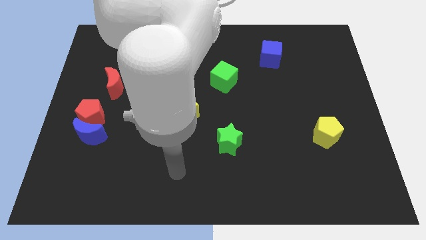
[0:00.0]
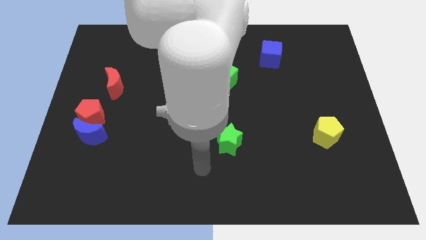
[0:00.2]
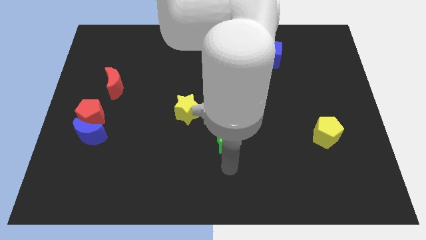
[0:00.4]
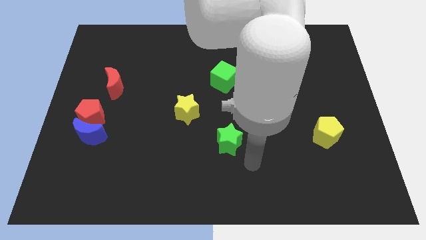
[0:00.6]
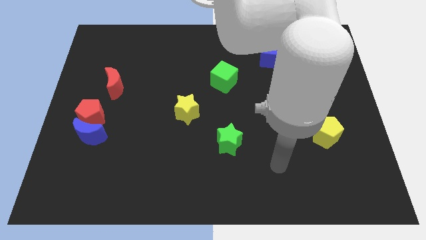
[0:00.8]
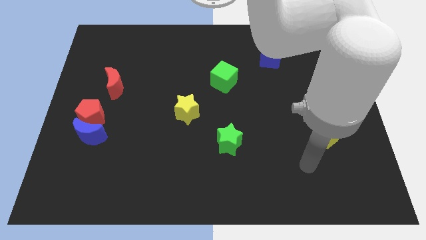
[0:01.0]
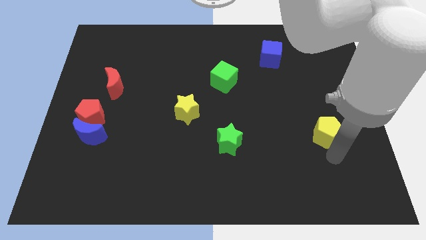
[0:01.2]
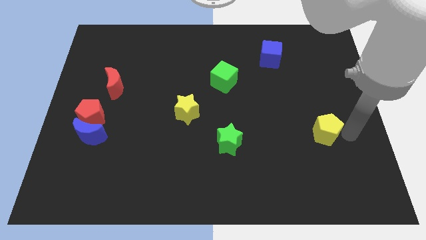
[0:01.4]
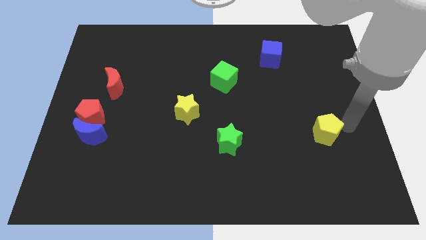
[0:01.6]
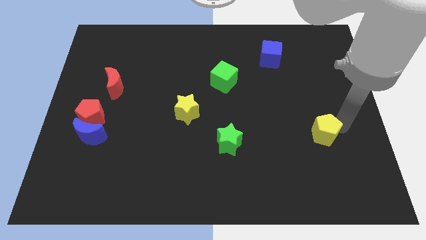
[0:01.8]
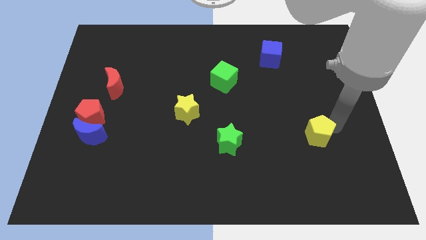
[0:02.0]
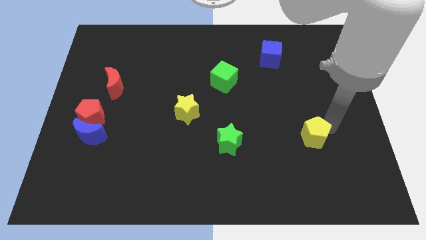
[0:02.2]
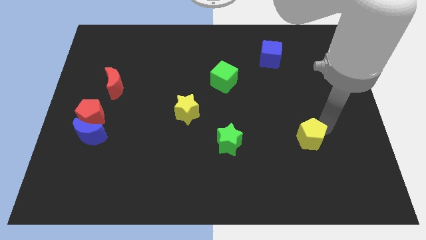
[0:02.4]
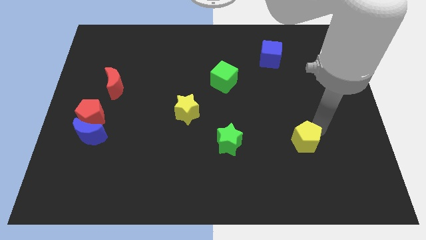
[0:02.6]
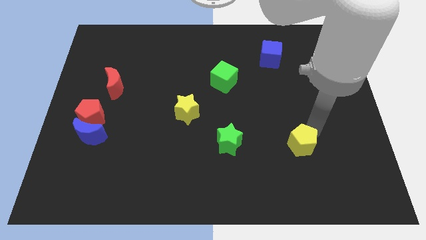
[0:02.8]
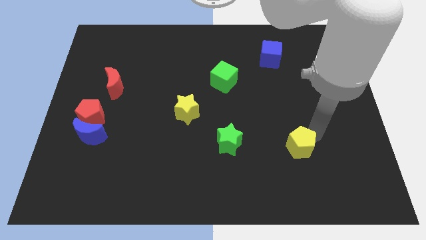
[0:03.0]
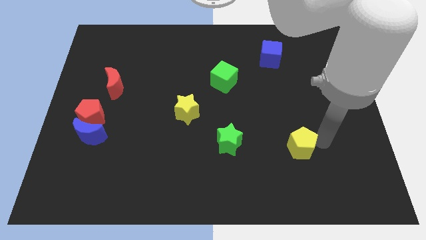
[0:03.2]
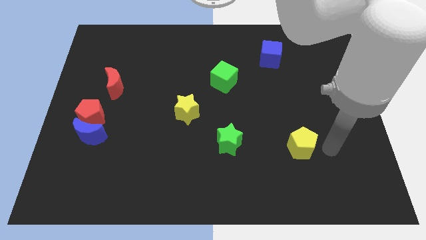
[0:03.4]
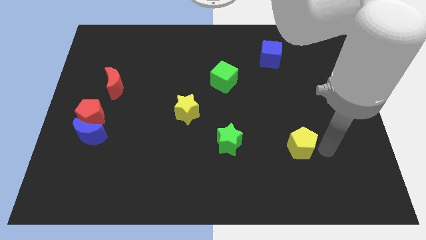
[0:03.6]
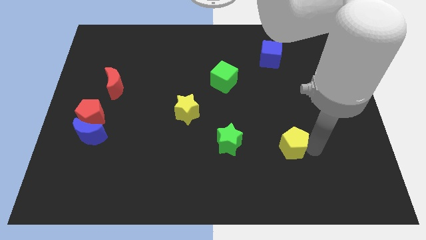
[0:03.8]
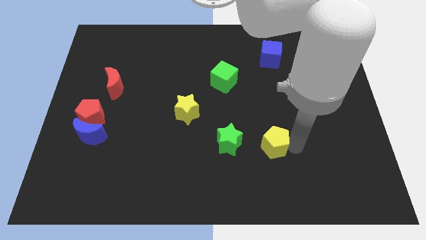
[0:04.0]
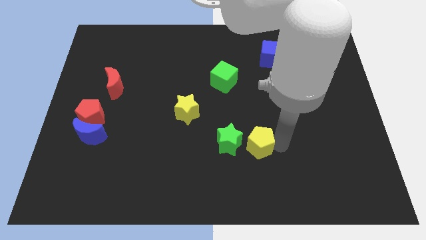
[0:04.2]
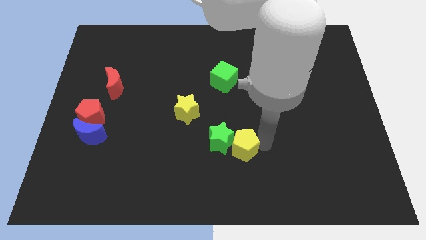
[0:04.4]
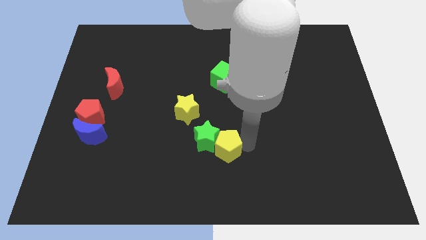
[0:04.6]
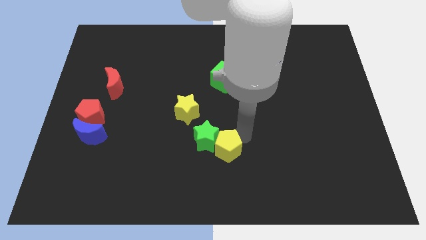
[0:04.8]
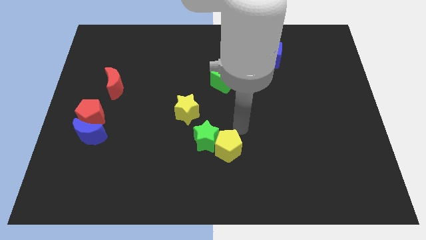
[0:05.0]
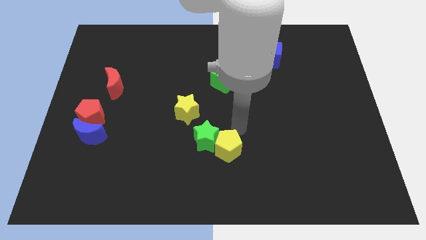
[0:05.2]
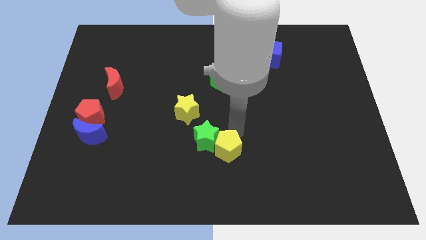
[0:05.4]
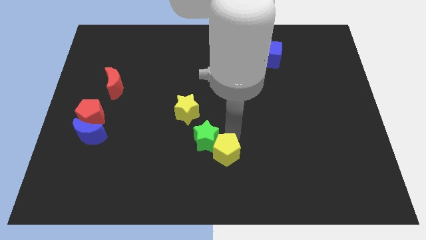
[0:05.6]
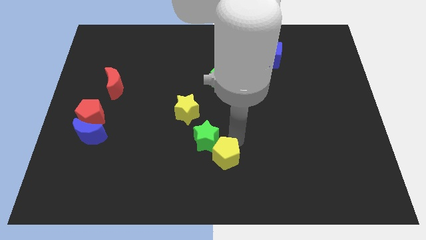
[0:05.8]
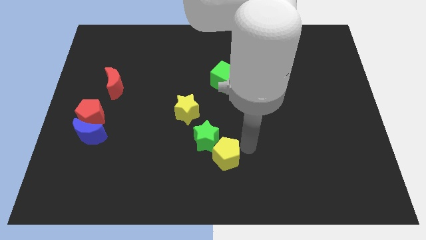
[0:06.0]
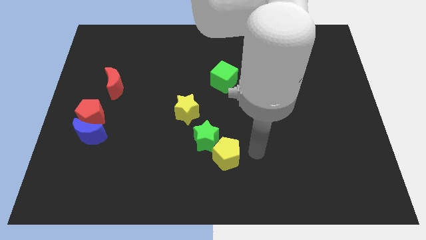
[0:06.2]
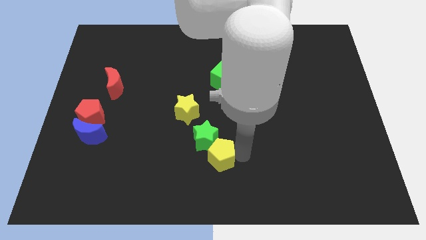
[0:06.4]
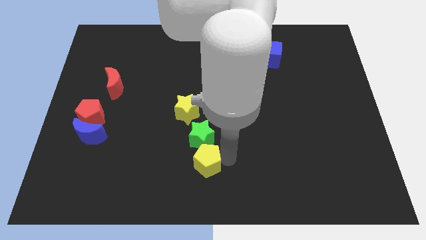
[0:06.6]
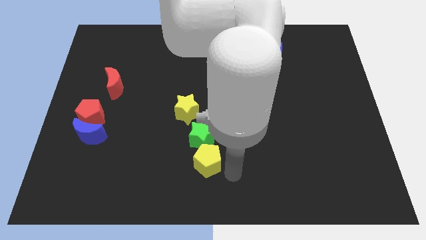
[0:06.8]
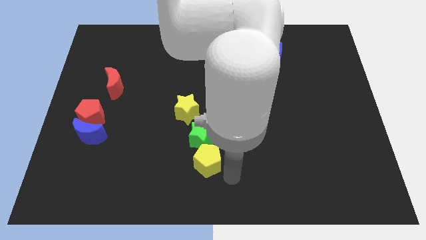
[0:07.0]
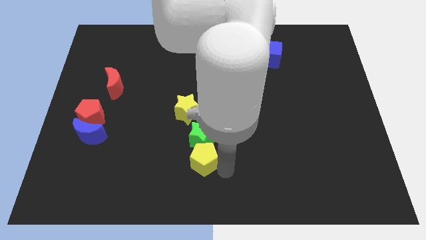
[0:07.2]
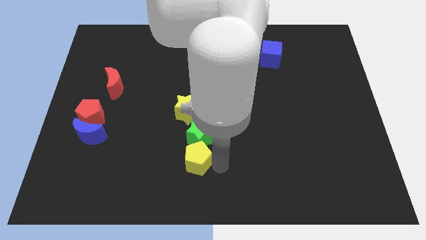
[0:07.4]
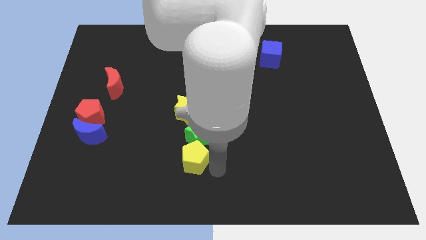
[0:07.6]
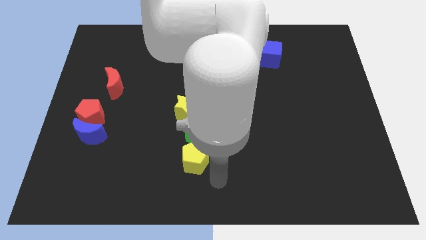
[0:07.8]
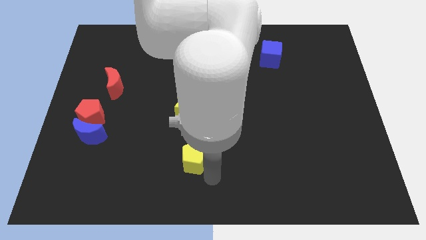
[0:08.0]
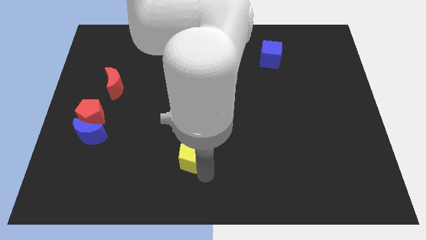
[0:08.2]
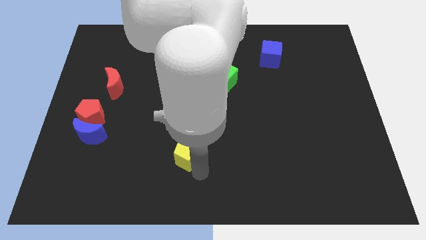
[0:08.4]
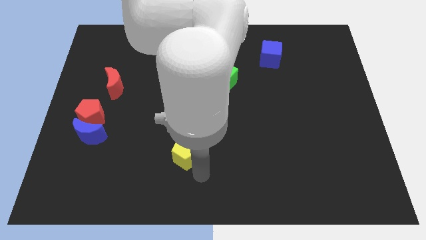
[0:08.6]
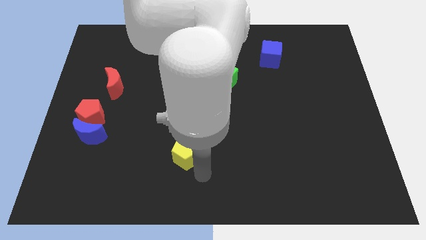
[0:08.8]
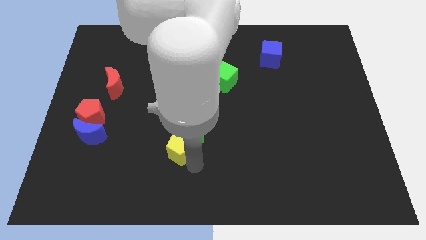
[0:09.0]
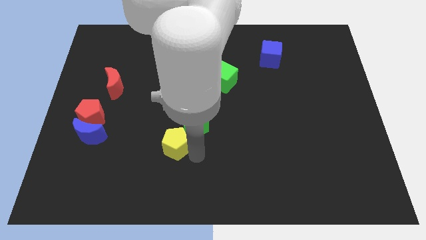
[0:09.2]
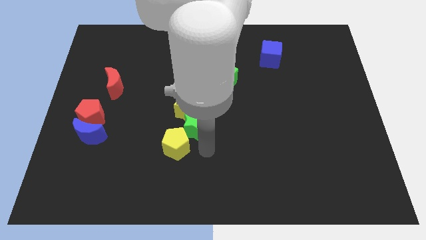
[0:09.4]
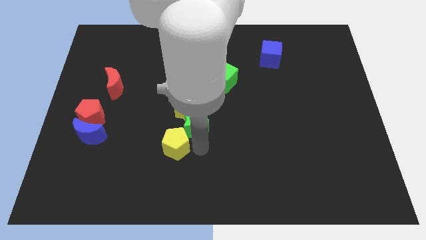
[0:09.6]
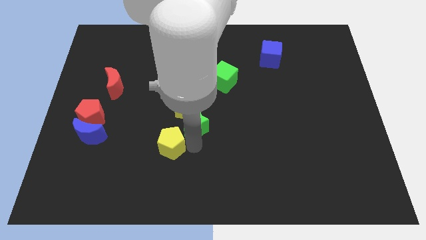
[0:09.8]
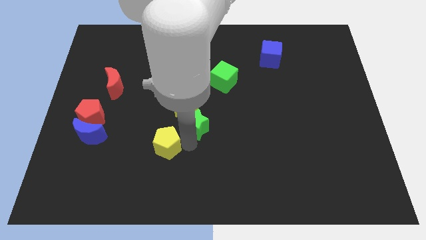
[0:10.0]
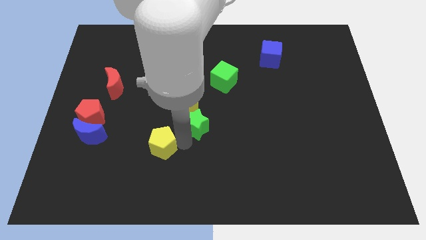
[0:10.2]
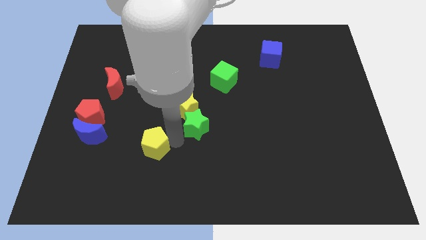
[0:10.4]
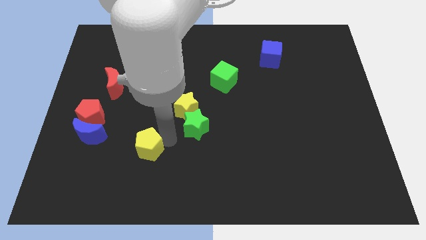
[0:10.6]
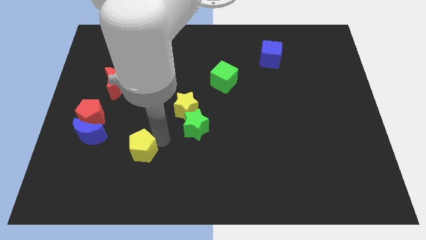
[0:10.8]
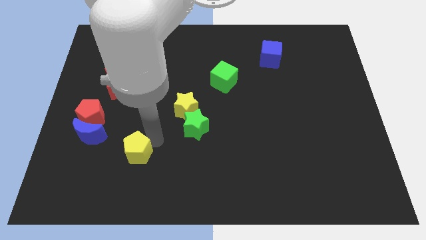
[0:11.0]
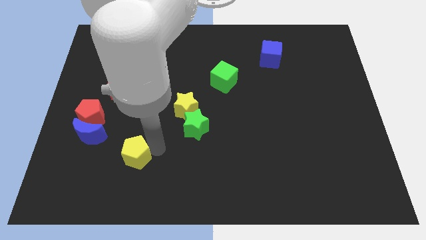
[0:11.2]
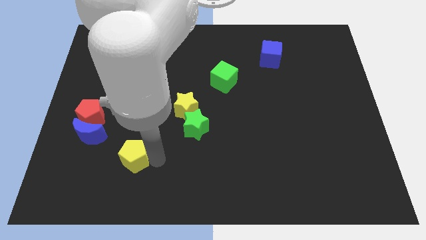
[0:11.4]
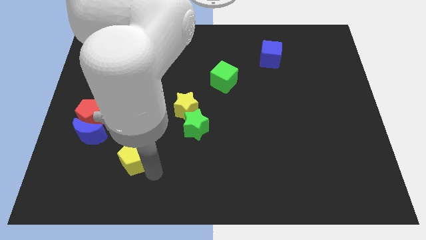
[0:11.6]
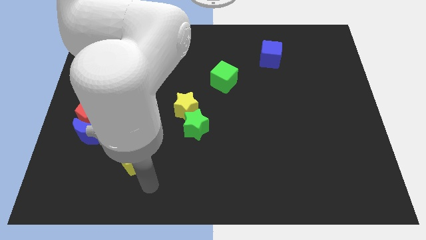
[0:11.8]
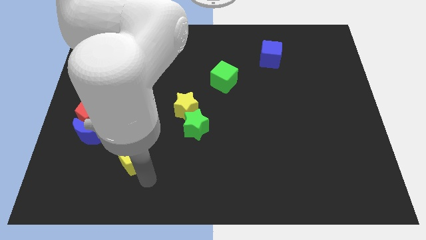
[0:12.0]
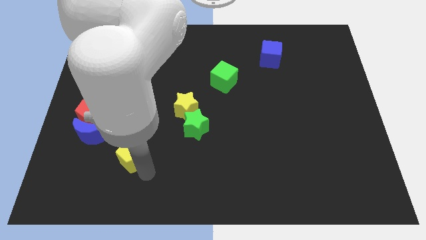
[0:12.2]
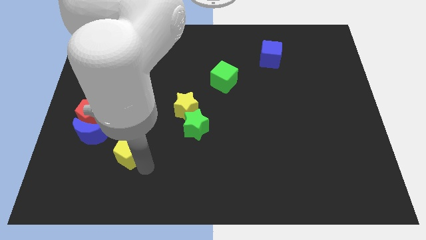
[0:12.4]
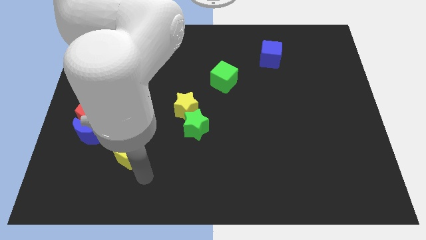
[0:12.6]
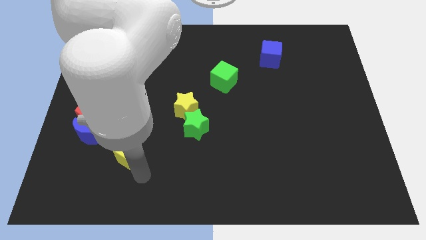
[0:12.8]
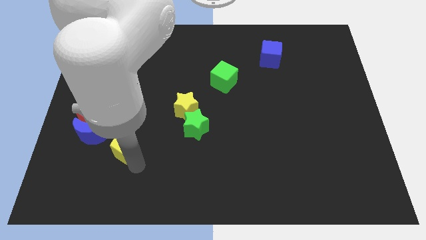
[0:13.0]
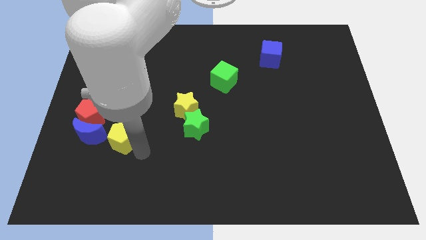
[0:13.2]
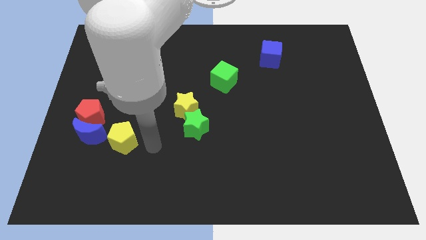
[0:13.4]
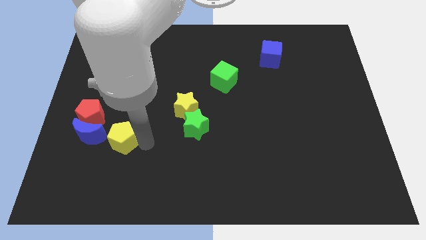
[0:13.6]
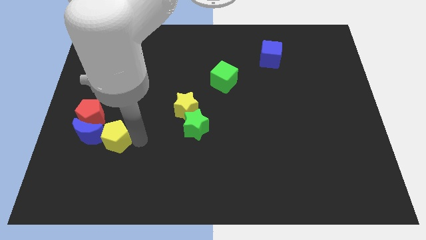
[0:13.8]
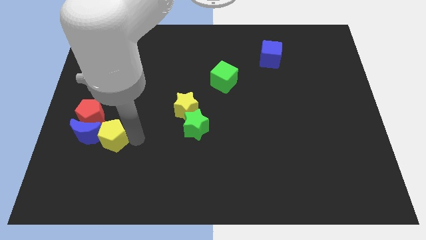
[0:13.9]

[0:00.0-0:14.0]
put the yellow pentagon close to the blue moon

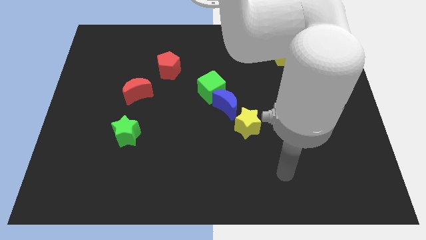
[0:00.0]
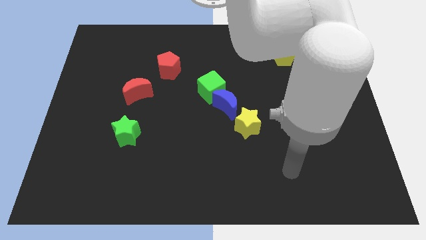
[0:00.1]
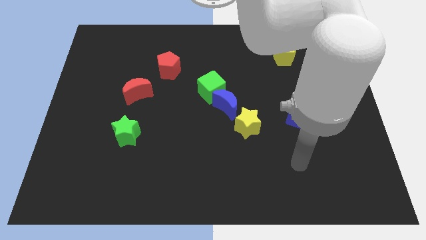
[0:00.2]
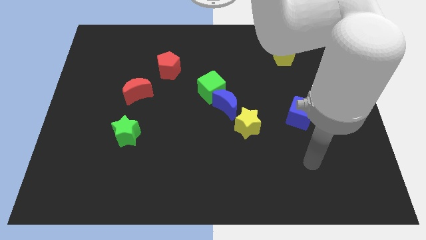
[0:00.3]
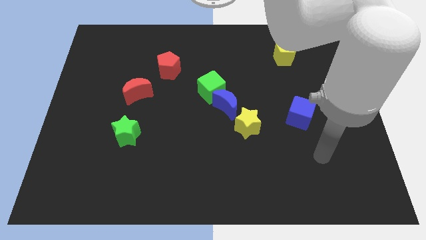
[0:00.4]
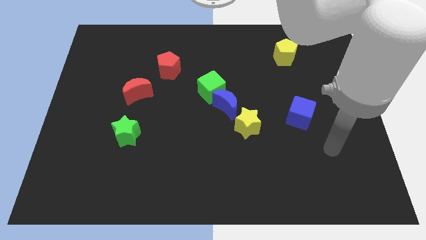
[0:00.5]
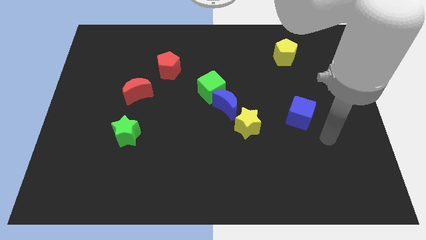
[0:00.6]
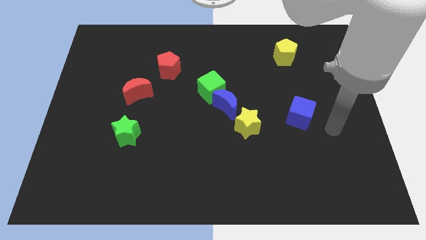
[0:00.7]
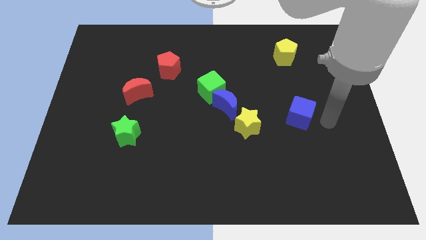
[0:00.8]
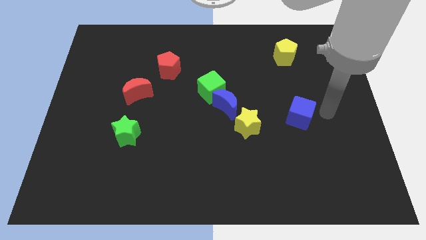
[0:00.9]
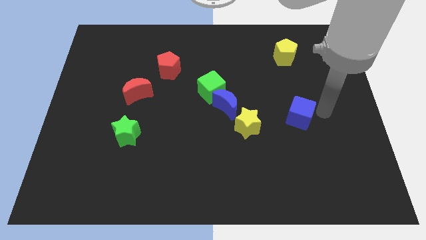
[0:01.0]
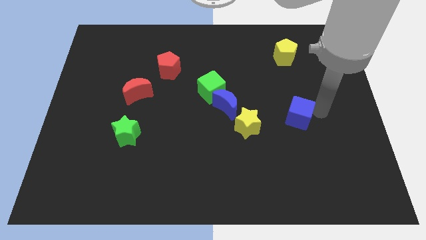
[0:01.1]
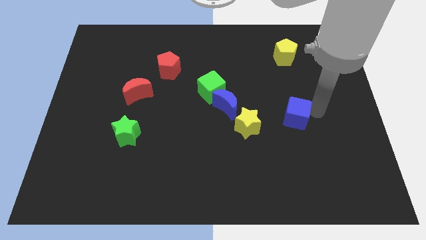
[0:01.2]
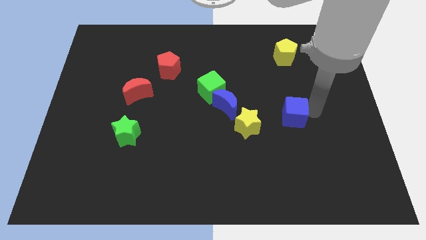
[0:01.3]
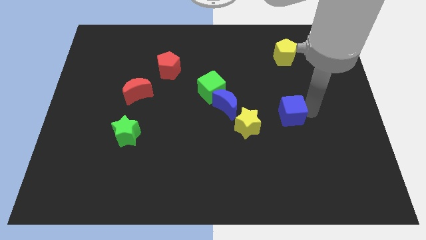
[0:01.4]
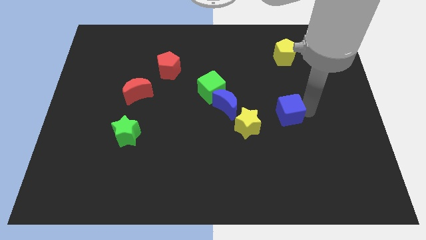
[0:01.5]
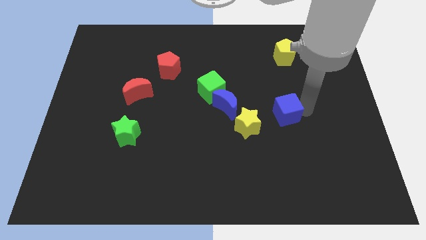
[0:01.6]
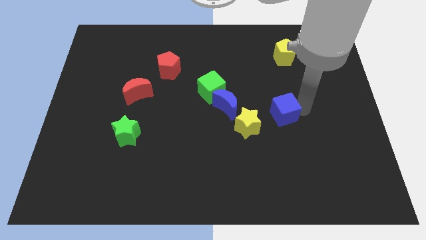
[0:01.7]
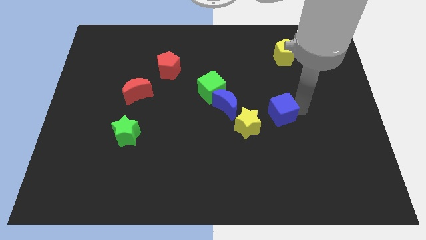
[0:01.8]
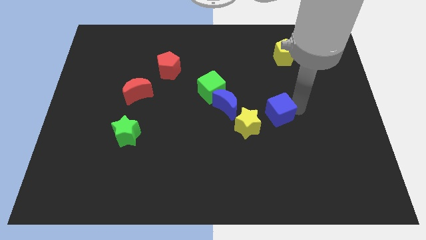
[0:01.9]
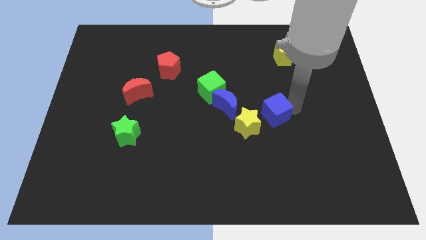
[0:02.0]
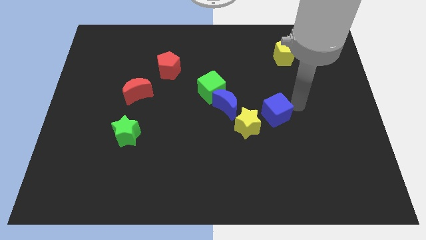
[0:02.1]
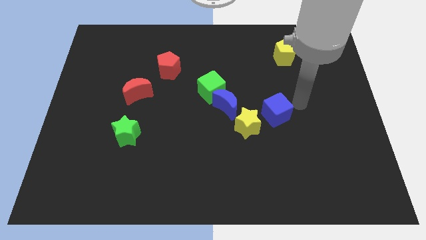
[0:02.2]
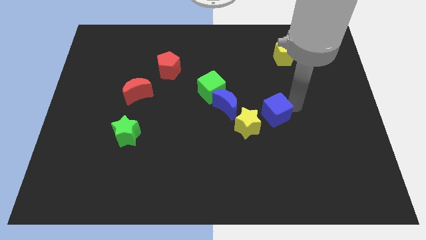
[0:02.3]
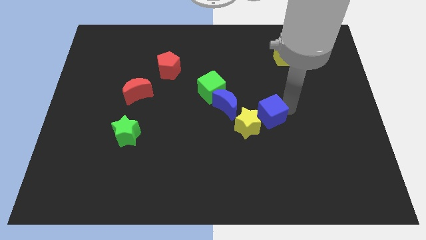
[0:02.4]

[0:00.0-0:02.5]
move the blue cube towards the yellow star
